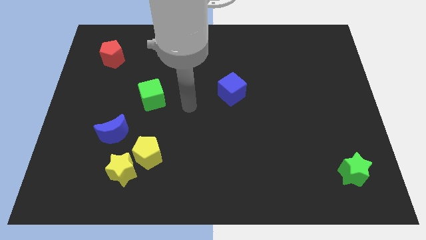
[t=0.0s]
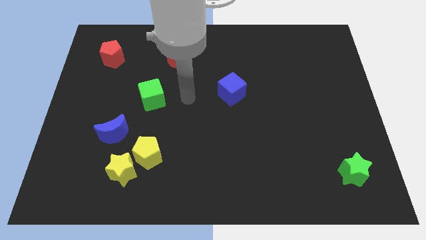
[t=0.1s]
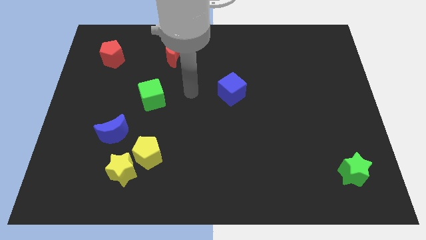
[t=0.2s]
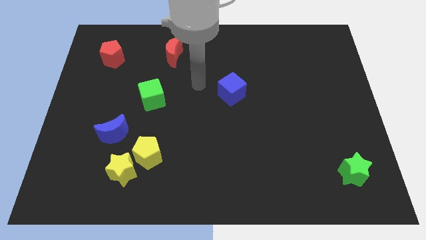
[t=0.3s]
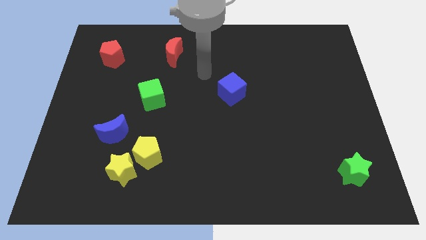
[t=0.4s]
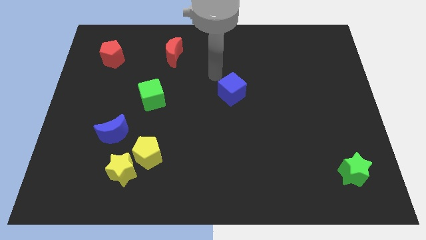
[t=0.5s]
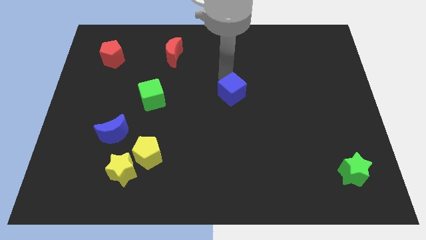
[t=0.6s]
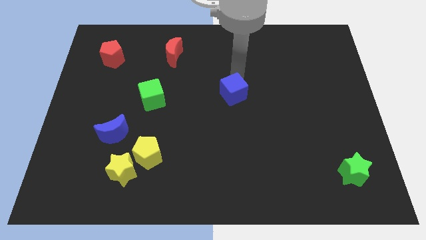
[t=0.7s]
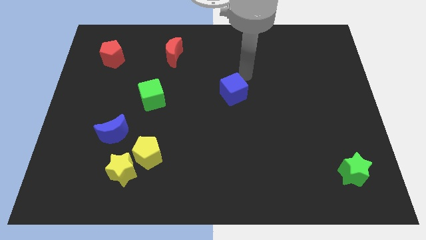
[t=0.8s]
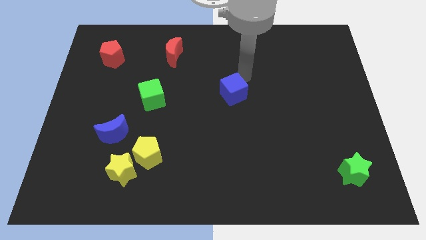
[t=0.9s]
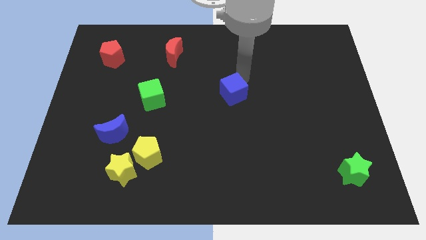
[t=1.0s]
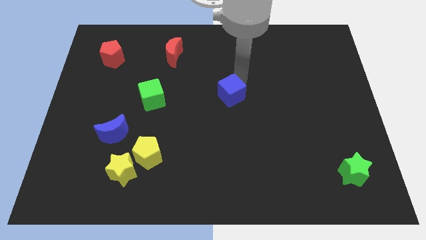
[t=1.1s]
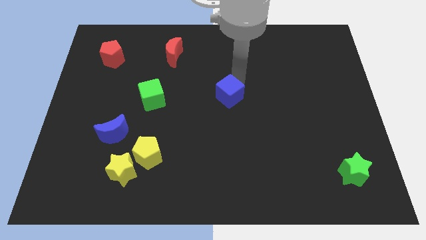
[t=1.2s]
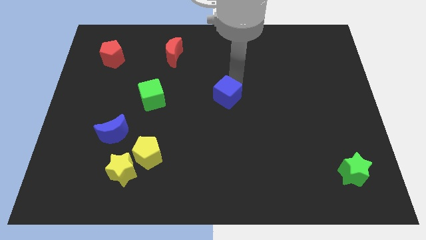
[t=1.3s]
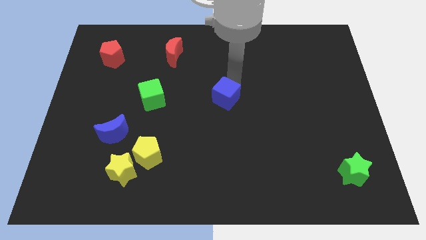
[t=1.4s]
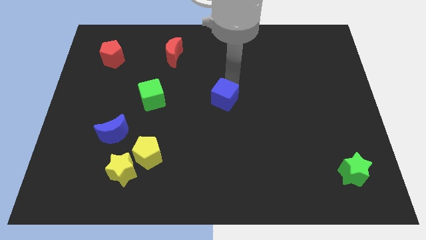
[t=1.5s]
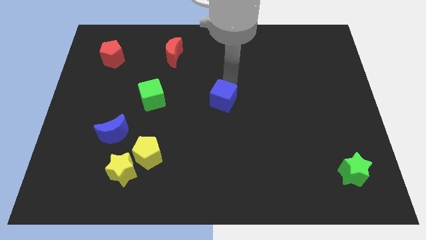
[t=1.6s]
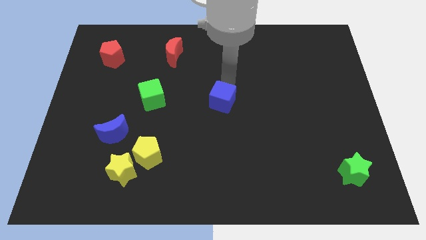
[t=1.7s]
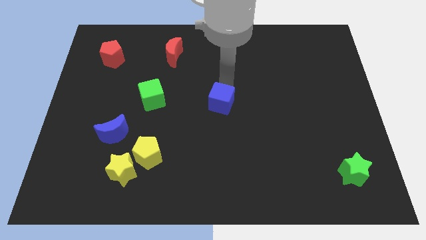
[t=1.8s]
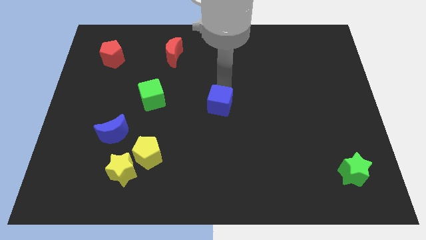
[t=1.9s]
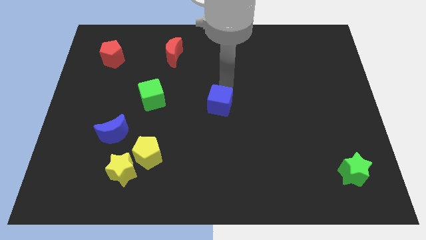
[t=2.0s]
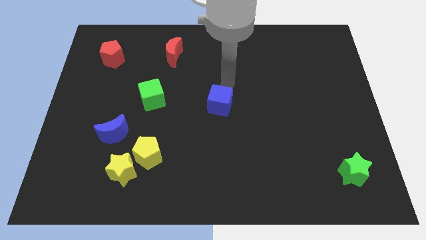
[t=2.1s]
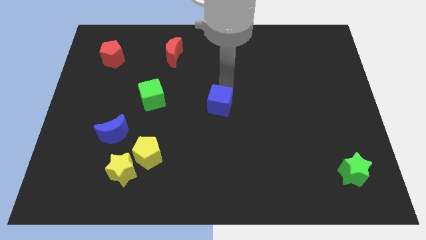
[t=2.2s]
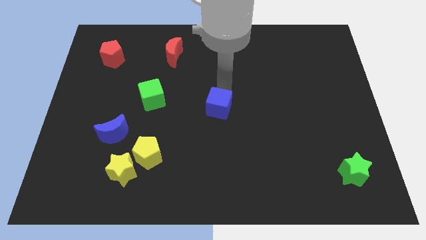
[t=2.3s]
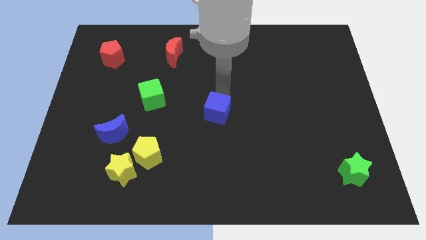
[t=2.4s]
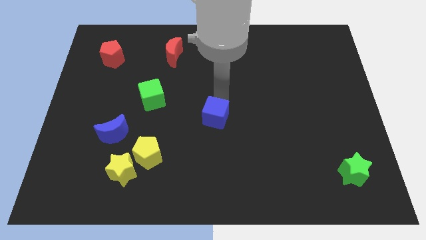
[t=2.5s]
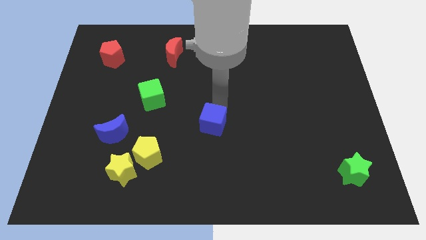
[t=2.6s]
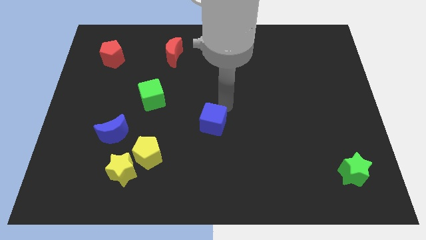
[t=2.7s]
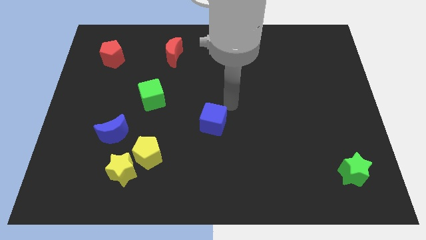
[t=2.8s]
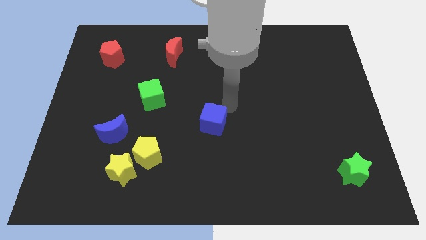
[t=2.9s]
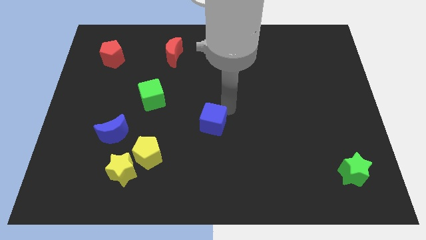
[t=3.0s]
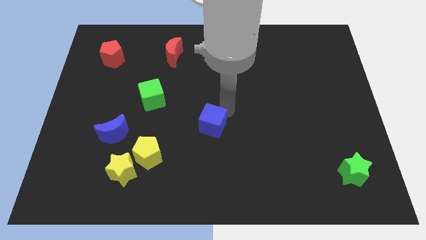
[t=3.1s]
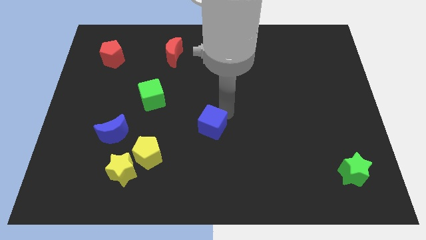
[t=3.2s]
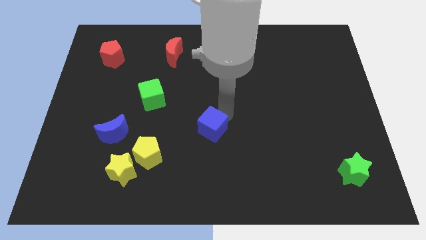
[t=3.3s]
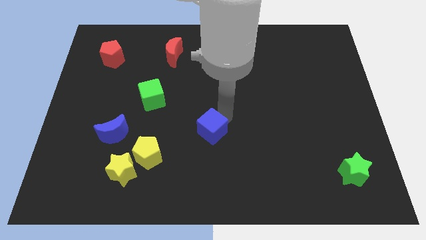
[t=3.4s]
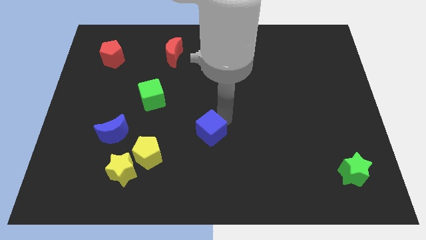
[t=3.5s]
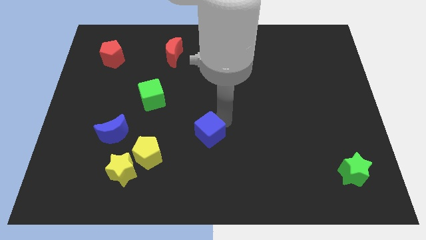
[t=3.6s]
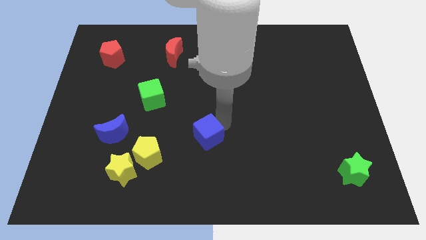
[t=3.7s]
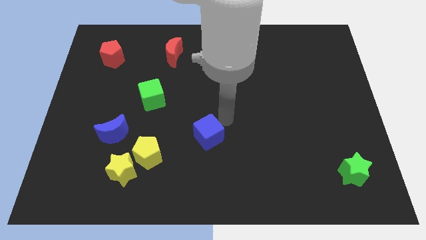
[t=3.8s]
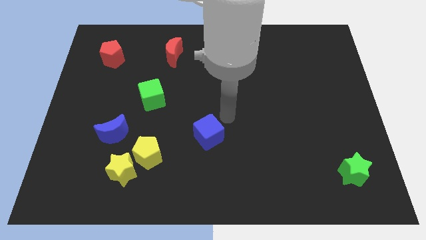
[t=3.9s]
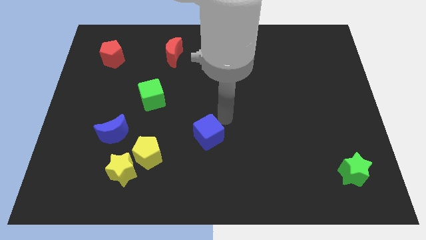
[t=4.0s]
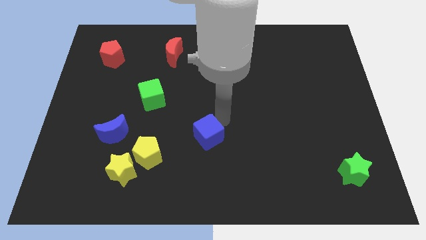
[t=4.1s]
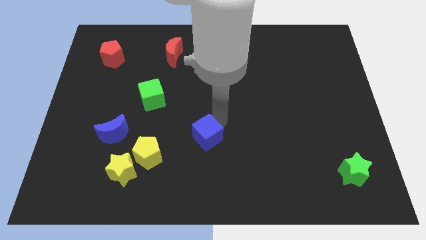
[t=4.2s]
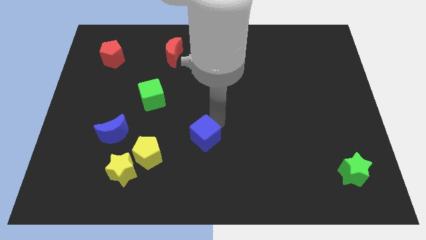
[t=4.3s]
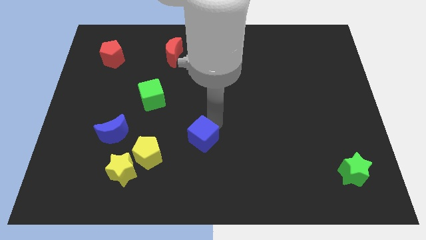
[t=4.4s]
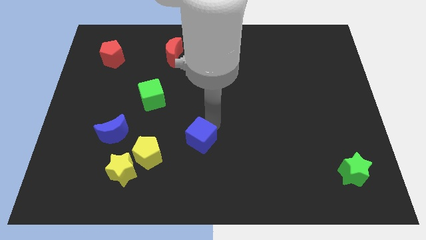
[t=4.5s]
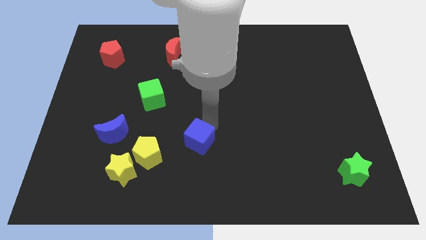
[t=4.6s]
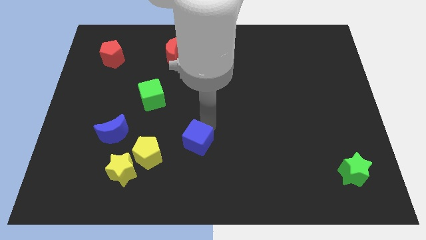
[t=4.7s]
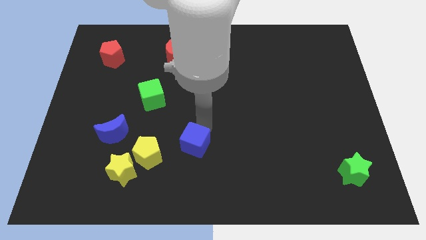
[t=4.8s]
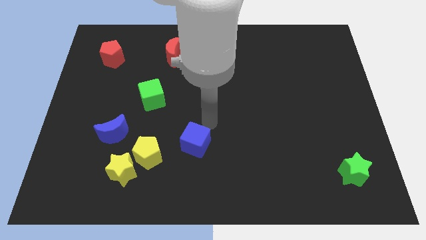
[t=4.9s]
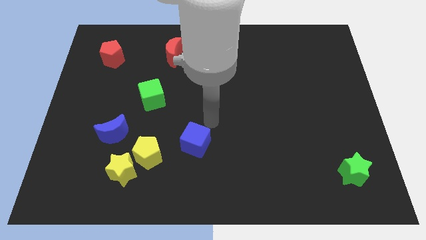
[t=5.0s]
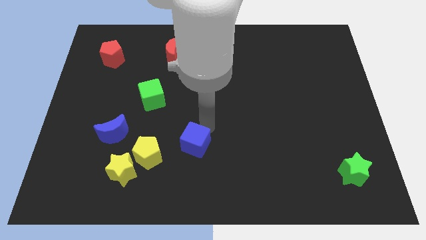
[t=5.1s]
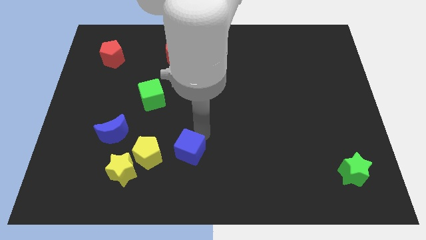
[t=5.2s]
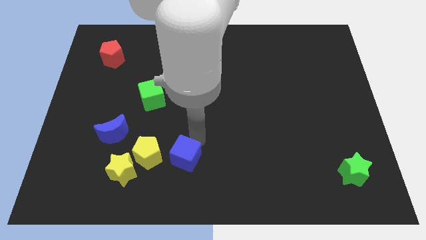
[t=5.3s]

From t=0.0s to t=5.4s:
move the blue cube right of the yellow star

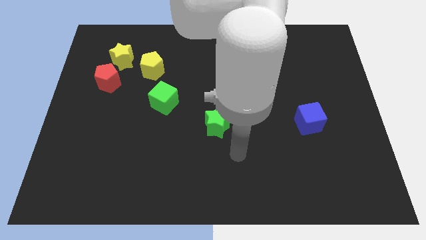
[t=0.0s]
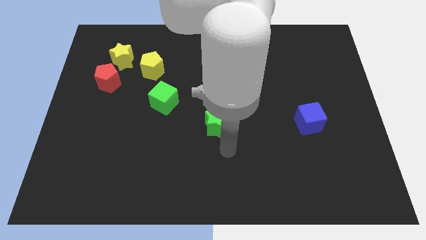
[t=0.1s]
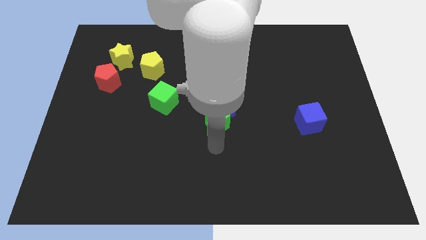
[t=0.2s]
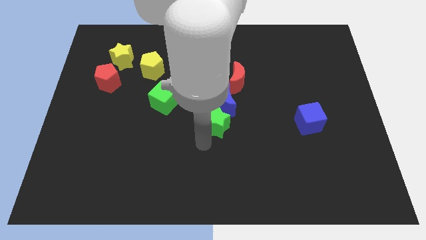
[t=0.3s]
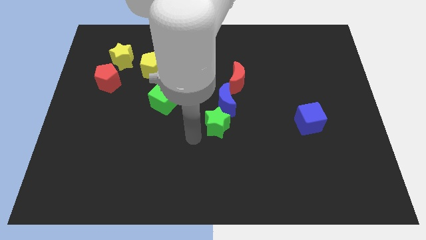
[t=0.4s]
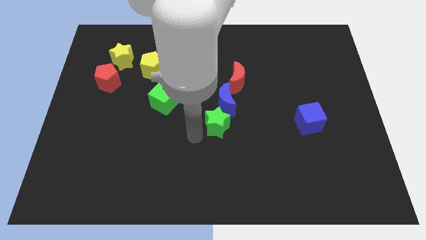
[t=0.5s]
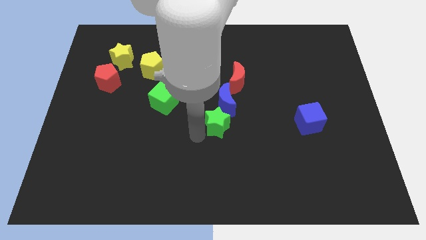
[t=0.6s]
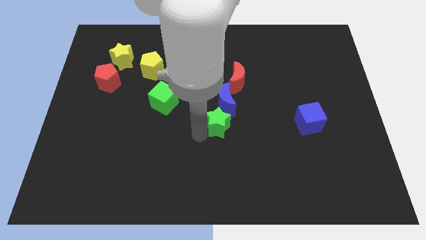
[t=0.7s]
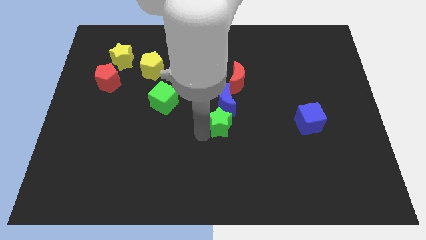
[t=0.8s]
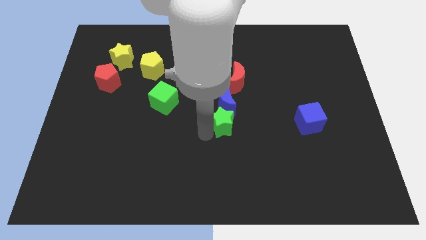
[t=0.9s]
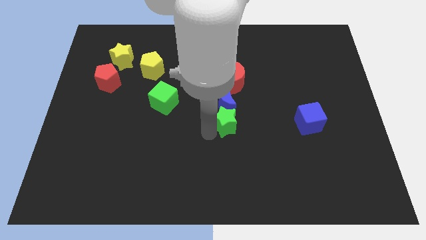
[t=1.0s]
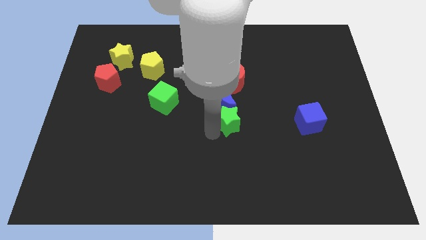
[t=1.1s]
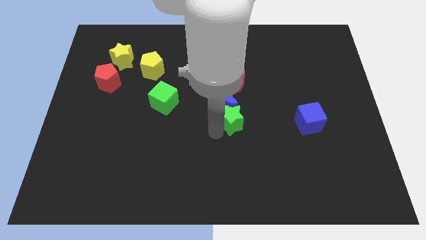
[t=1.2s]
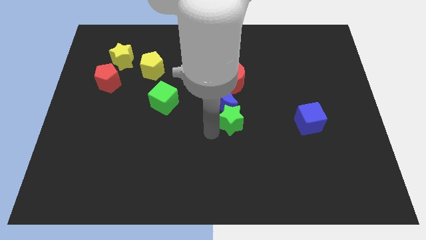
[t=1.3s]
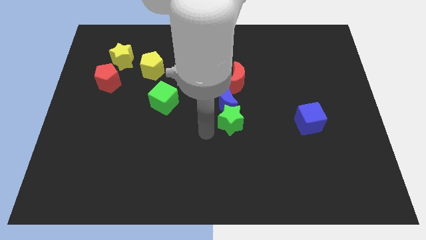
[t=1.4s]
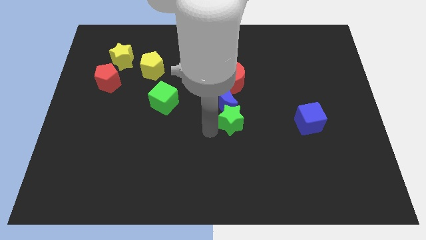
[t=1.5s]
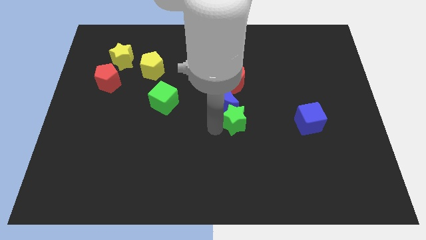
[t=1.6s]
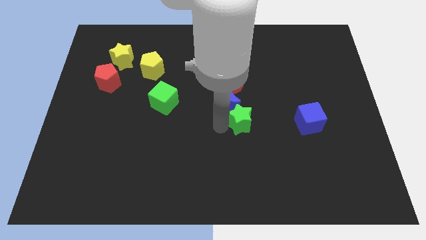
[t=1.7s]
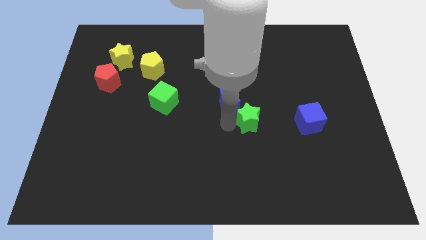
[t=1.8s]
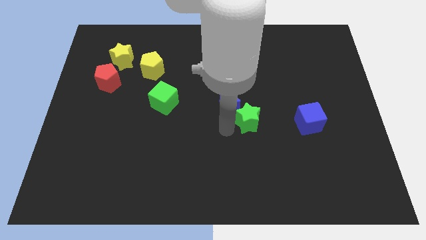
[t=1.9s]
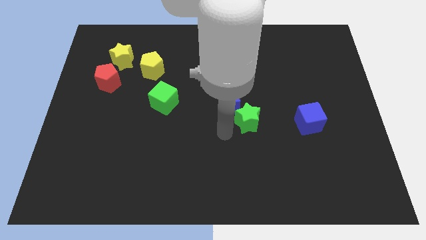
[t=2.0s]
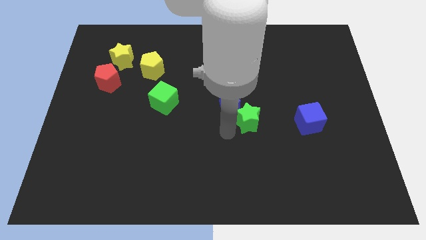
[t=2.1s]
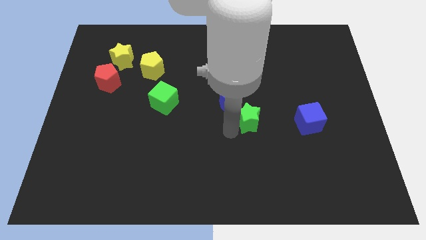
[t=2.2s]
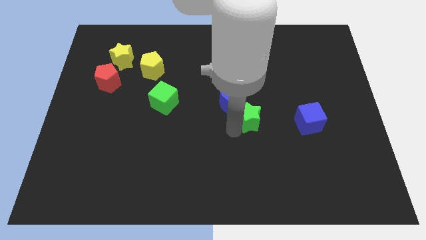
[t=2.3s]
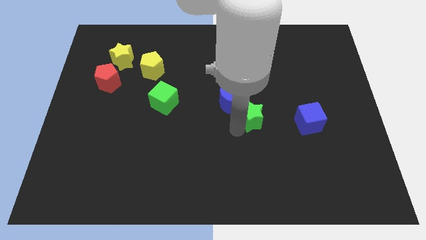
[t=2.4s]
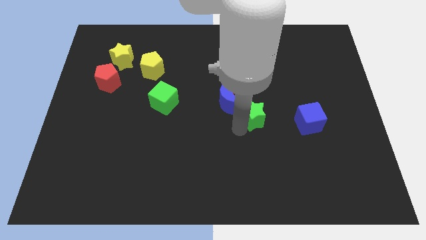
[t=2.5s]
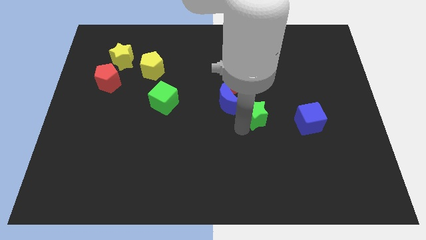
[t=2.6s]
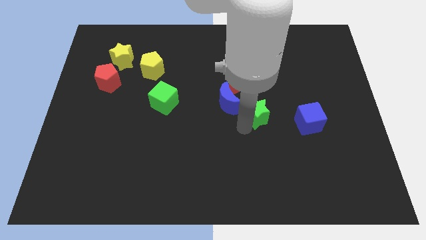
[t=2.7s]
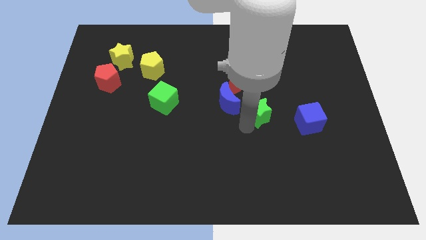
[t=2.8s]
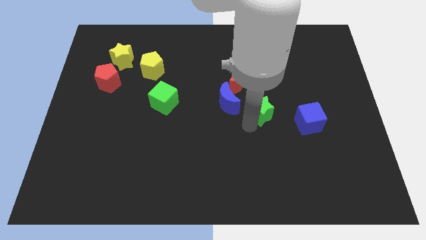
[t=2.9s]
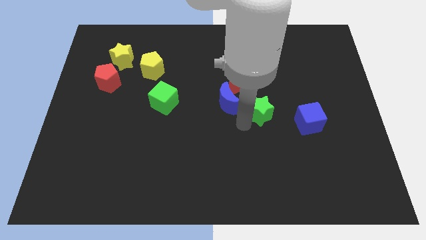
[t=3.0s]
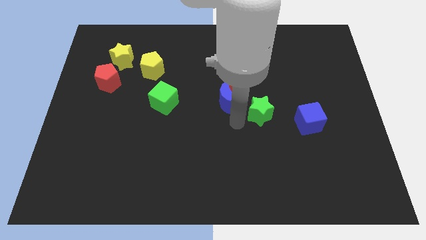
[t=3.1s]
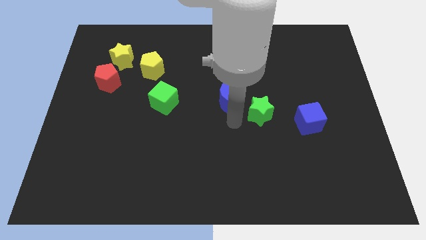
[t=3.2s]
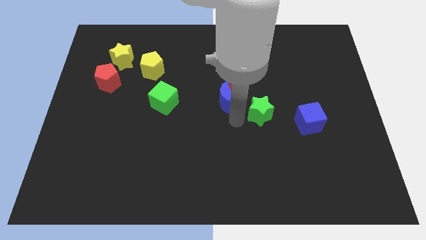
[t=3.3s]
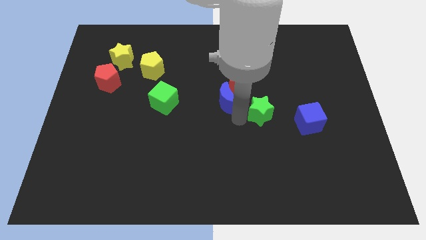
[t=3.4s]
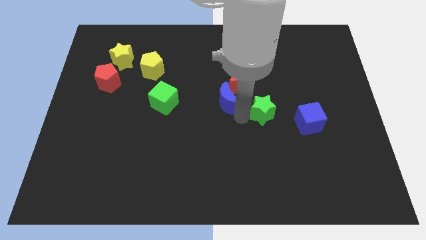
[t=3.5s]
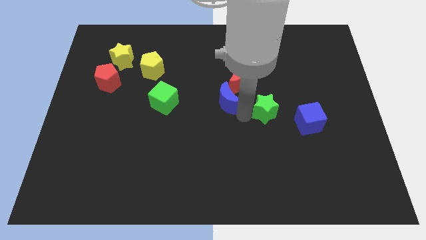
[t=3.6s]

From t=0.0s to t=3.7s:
put the green star to the top left of the blue cube
